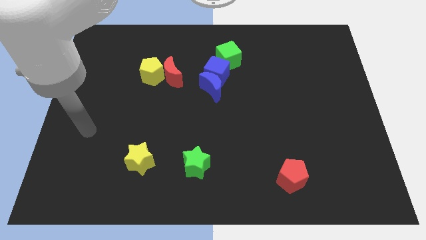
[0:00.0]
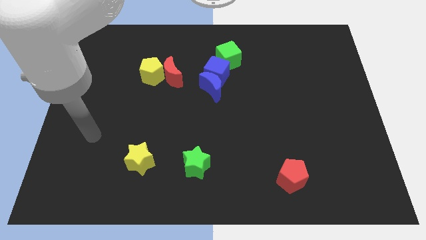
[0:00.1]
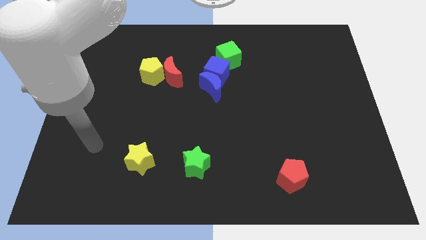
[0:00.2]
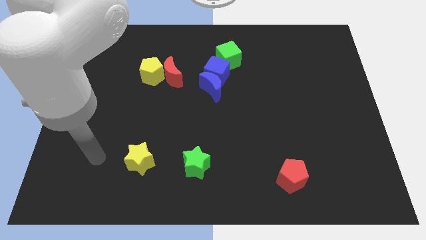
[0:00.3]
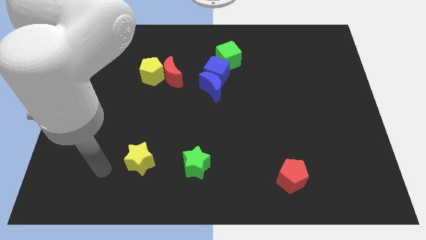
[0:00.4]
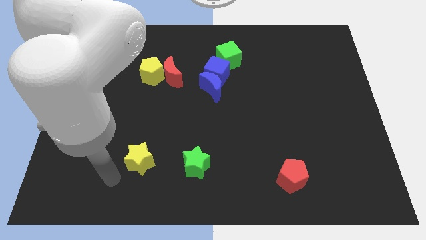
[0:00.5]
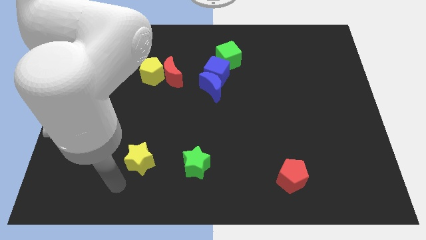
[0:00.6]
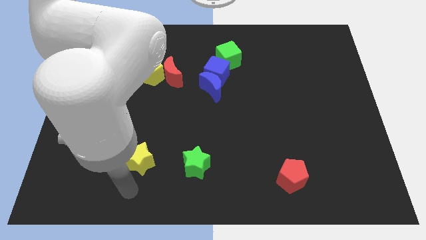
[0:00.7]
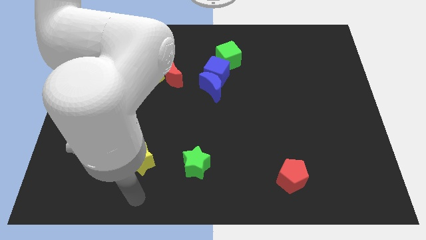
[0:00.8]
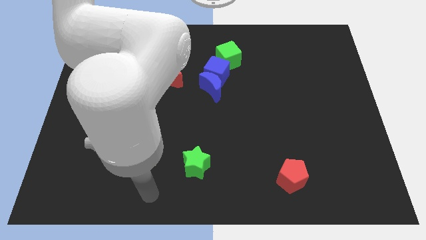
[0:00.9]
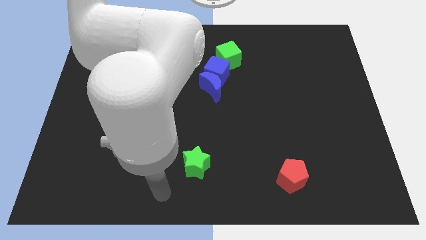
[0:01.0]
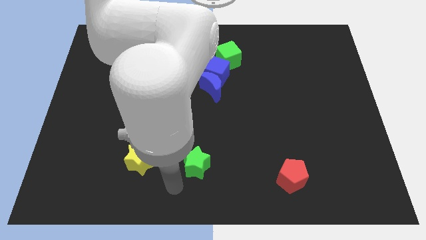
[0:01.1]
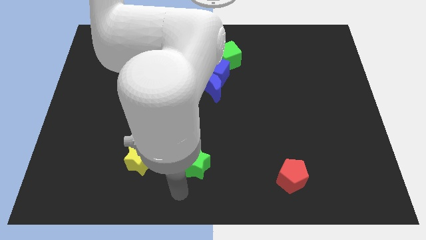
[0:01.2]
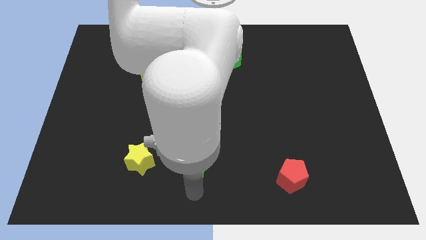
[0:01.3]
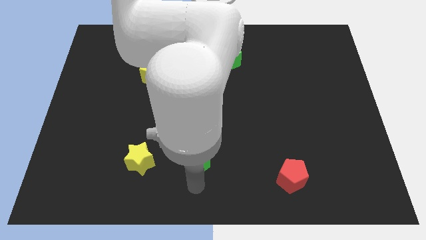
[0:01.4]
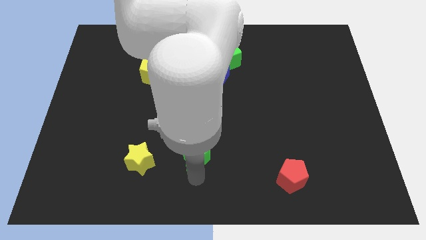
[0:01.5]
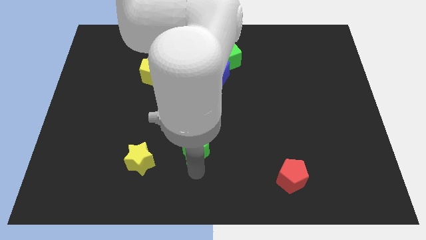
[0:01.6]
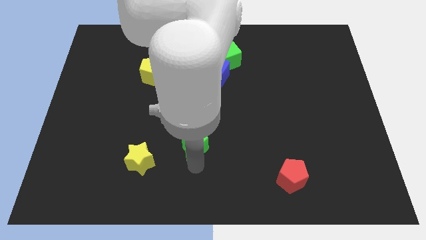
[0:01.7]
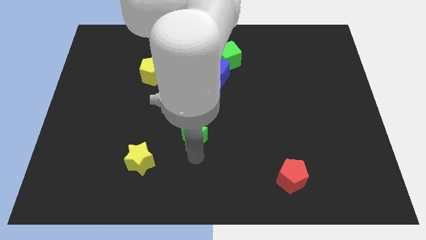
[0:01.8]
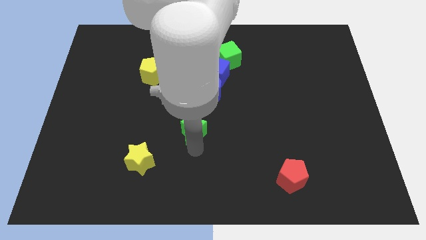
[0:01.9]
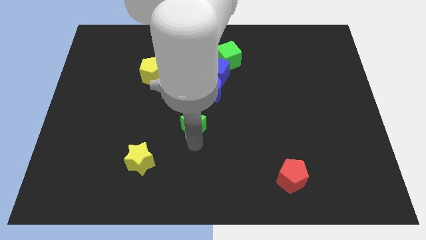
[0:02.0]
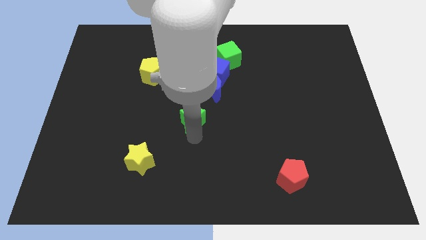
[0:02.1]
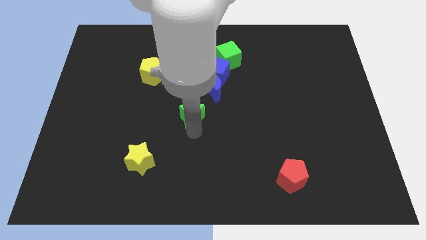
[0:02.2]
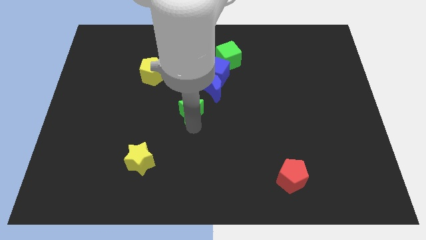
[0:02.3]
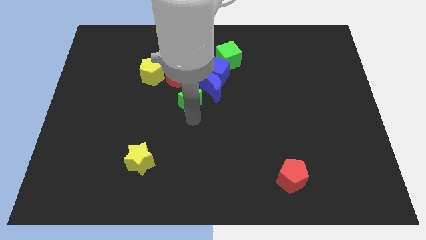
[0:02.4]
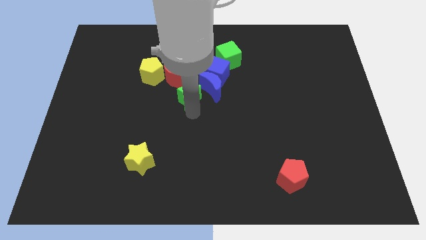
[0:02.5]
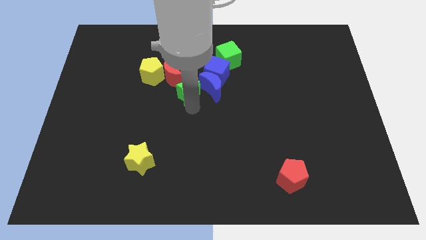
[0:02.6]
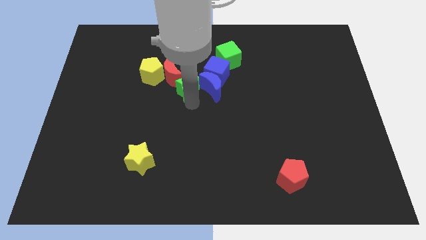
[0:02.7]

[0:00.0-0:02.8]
move the green star upwards

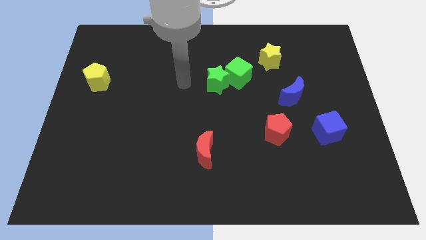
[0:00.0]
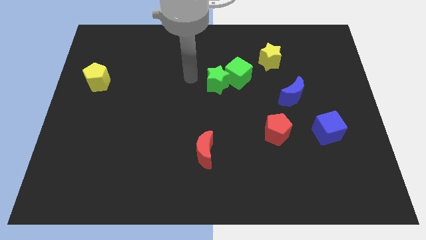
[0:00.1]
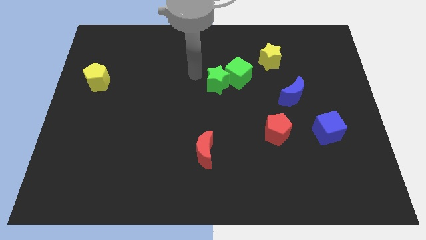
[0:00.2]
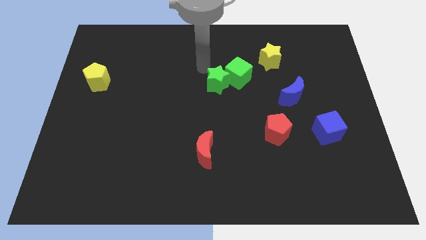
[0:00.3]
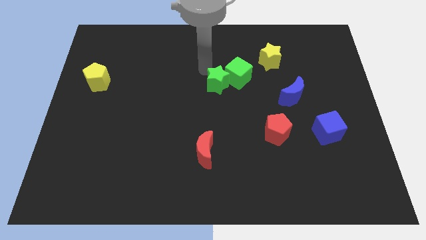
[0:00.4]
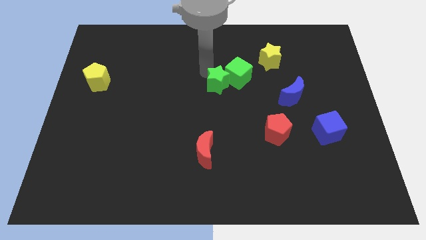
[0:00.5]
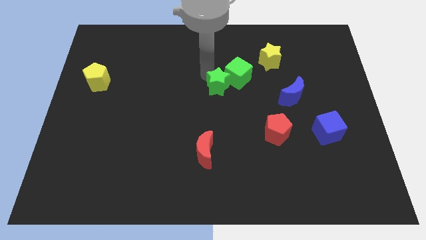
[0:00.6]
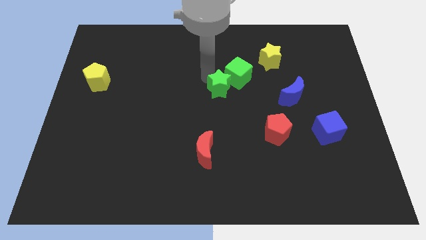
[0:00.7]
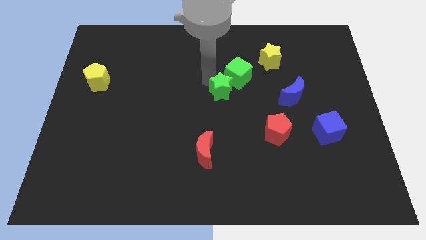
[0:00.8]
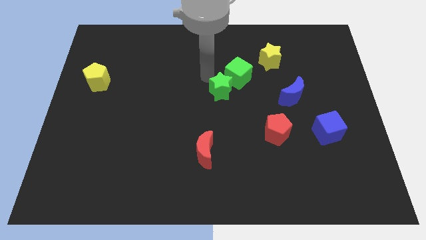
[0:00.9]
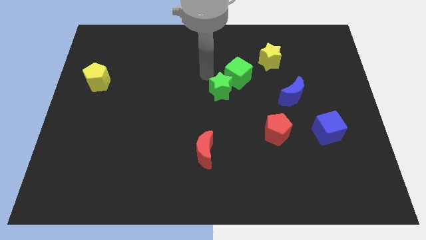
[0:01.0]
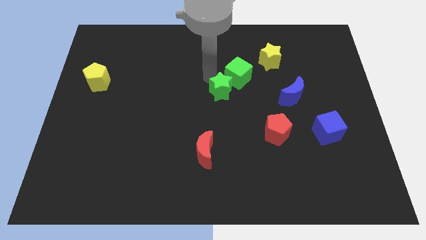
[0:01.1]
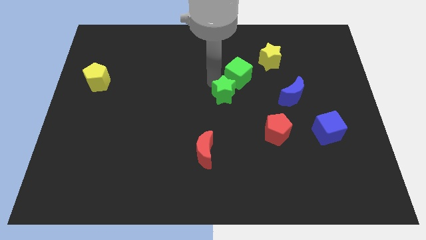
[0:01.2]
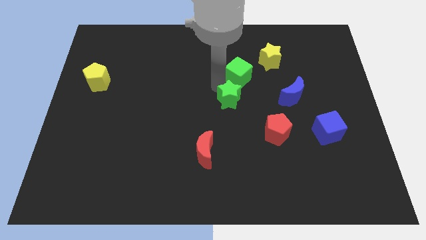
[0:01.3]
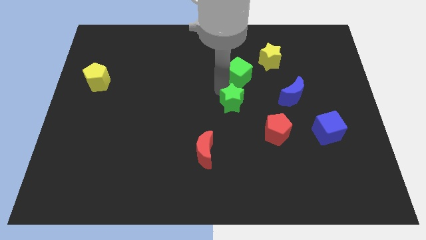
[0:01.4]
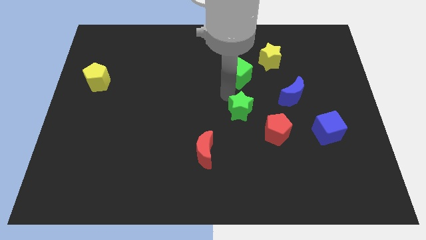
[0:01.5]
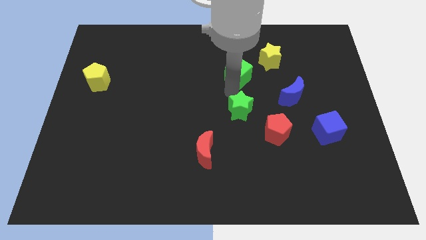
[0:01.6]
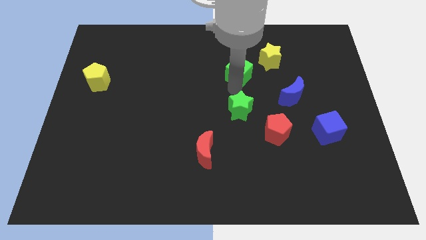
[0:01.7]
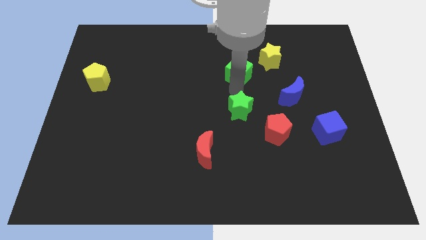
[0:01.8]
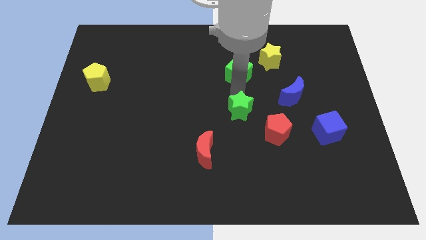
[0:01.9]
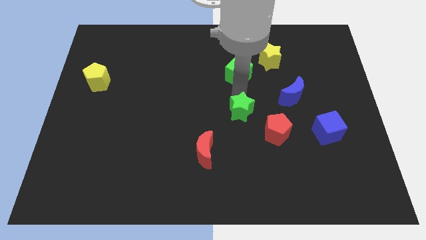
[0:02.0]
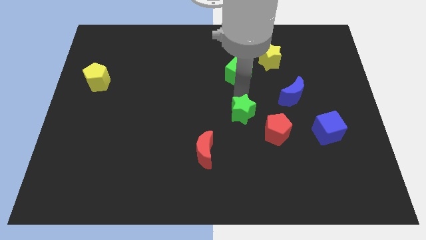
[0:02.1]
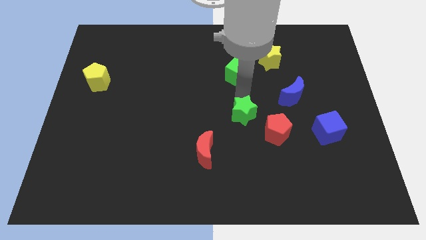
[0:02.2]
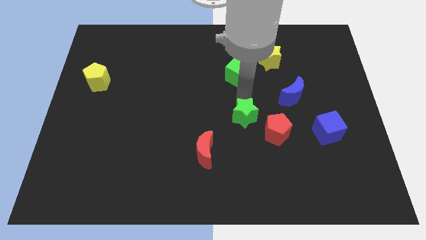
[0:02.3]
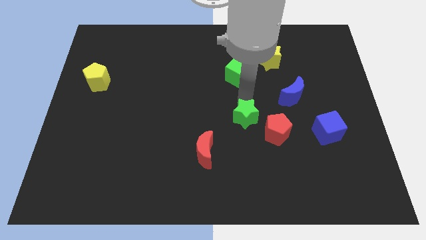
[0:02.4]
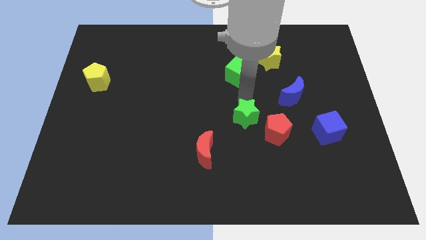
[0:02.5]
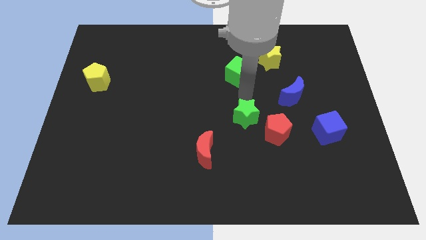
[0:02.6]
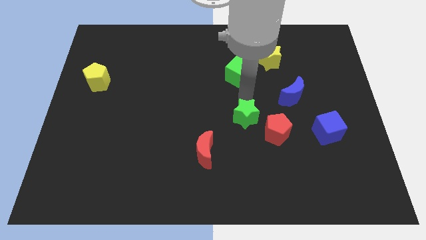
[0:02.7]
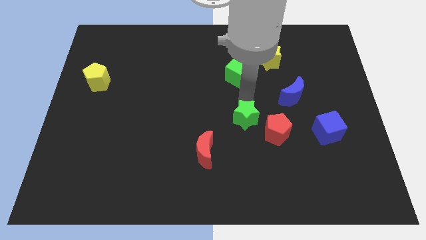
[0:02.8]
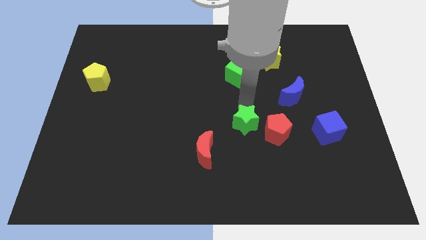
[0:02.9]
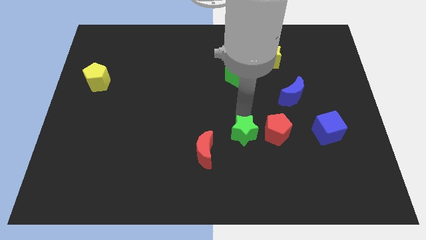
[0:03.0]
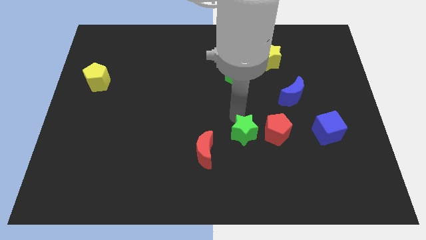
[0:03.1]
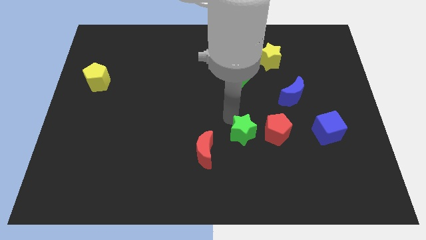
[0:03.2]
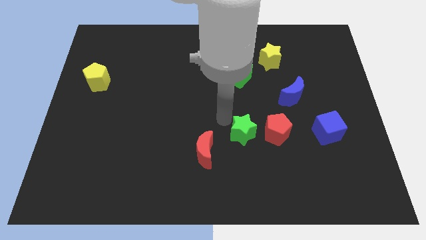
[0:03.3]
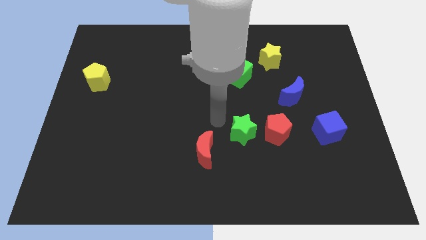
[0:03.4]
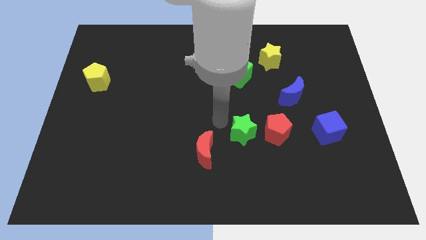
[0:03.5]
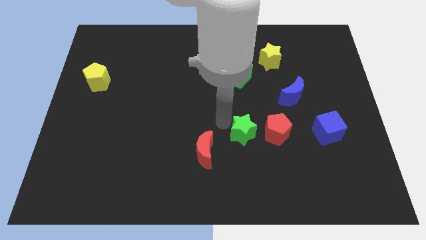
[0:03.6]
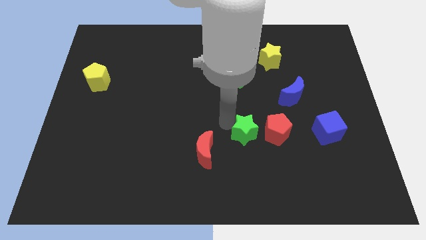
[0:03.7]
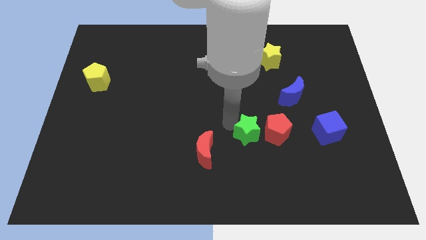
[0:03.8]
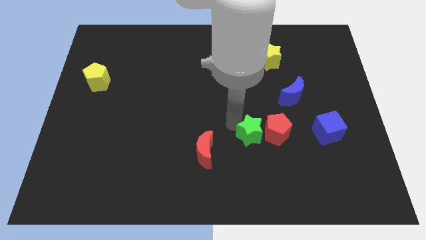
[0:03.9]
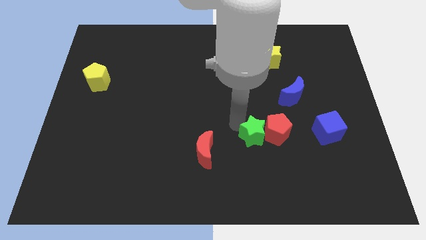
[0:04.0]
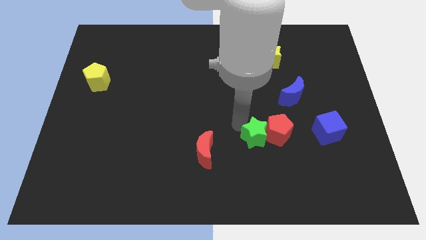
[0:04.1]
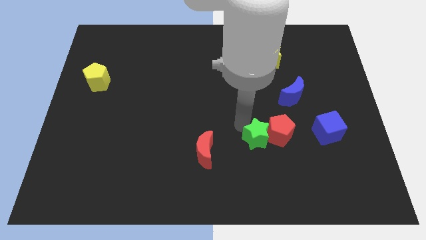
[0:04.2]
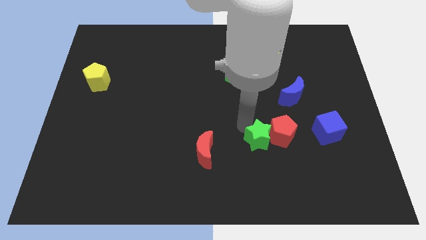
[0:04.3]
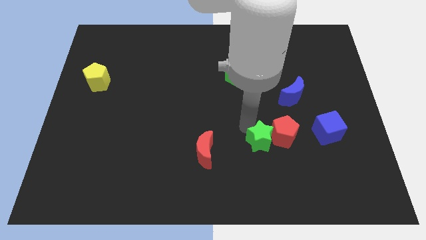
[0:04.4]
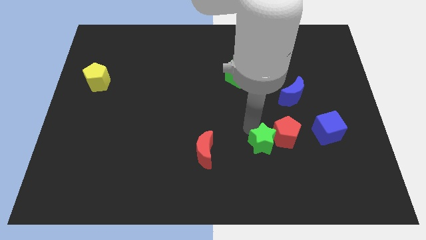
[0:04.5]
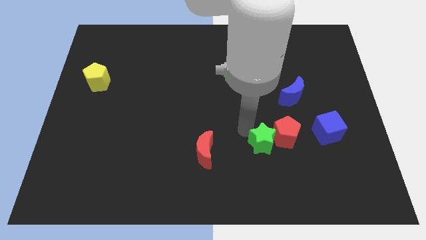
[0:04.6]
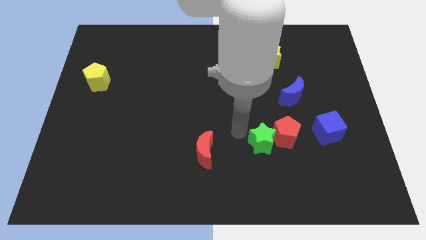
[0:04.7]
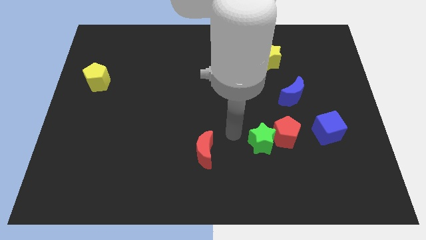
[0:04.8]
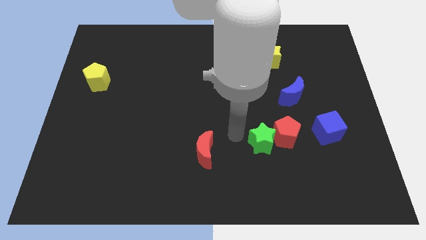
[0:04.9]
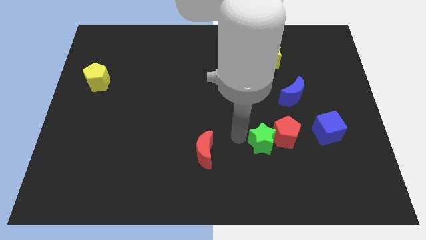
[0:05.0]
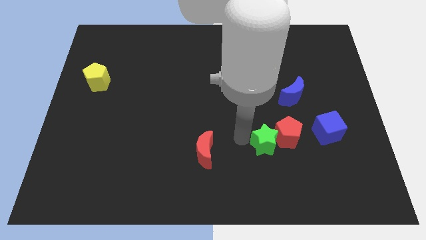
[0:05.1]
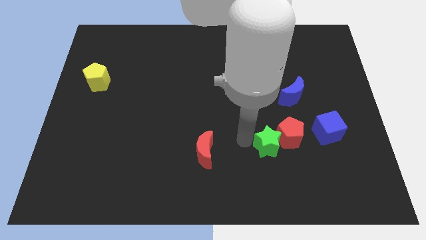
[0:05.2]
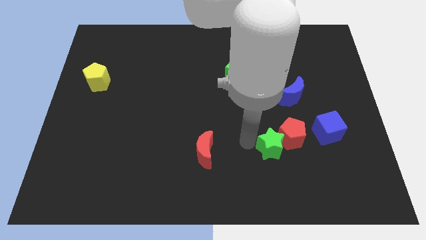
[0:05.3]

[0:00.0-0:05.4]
move the green star downwards and right diagonally
